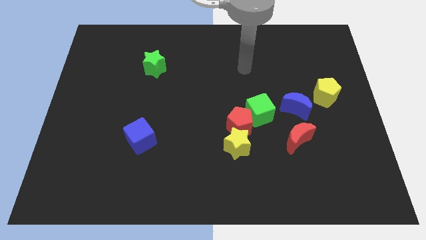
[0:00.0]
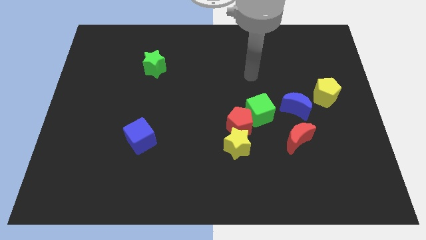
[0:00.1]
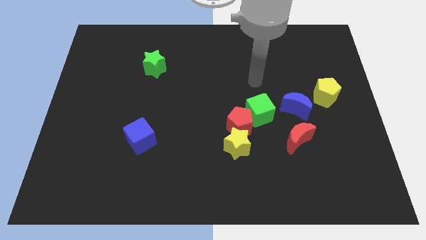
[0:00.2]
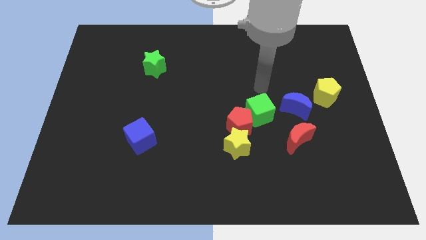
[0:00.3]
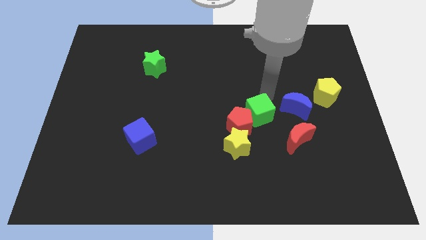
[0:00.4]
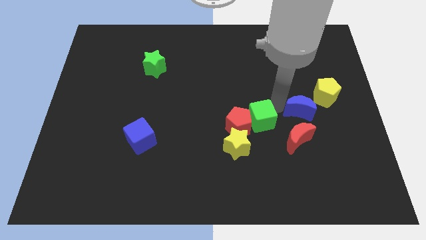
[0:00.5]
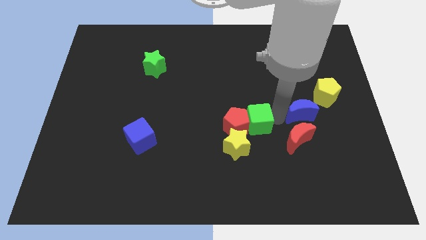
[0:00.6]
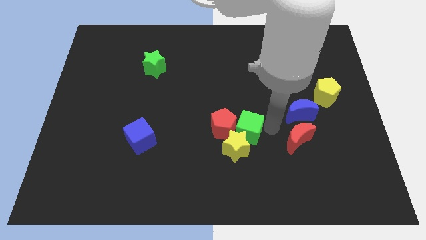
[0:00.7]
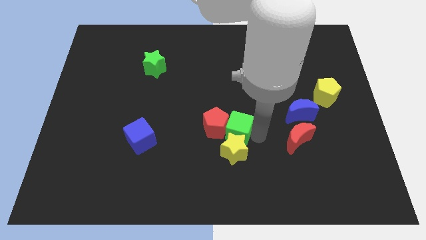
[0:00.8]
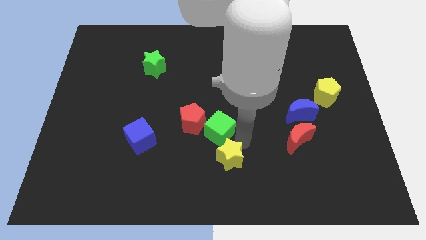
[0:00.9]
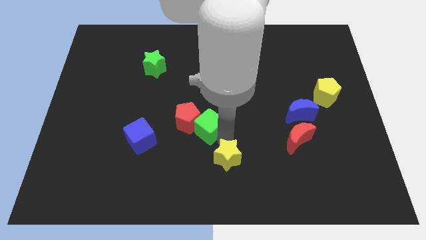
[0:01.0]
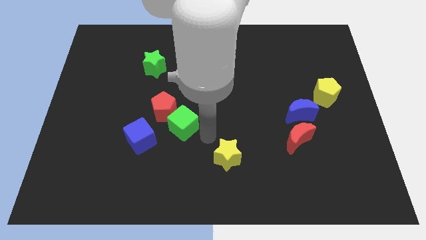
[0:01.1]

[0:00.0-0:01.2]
move the red pentagon away from the green cube and yellow star

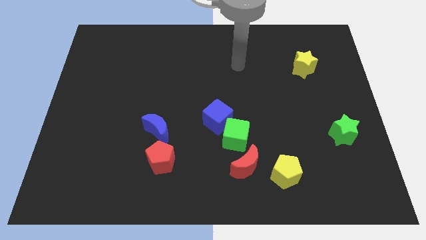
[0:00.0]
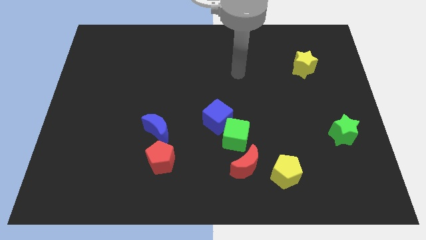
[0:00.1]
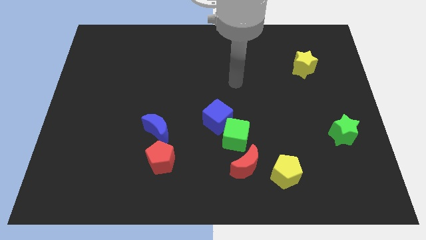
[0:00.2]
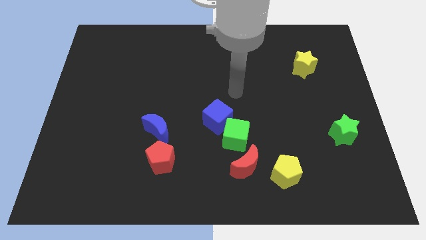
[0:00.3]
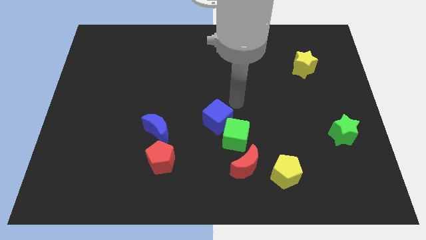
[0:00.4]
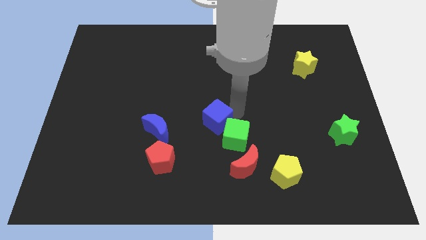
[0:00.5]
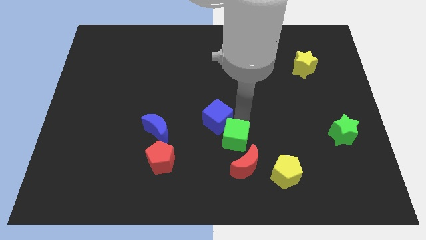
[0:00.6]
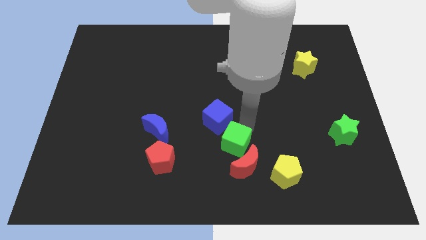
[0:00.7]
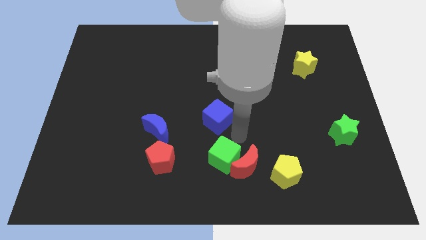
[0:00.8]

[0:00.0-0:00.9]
pull the blue cube apart from the green cube

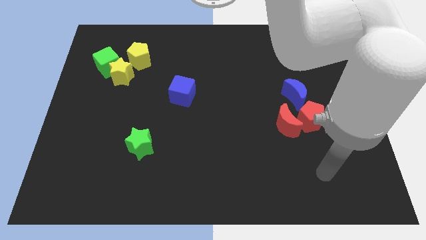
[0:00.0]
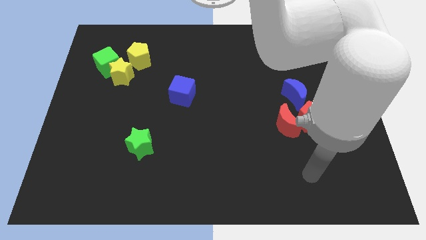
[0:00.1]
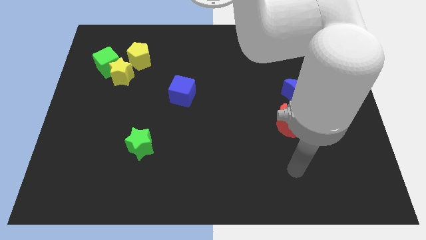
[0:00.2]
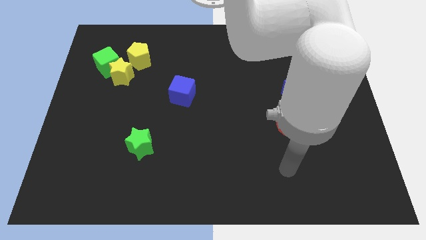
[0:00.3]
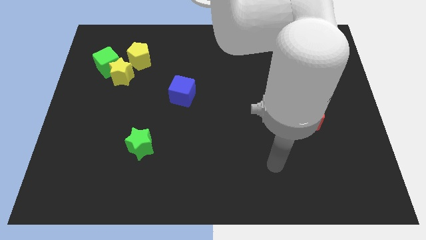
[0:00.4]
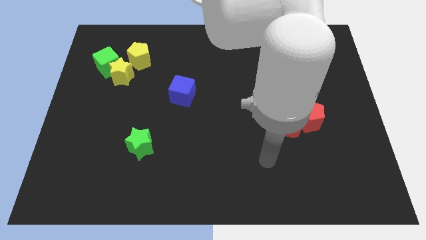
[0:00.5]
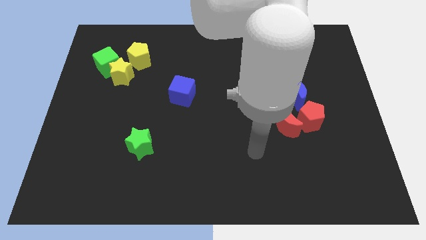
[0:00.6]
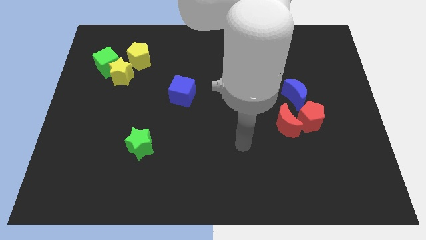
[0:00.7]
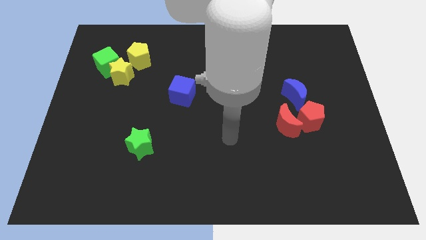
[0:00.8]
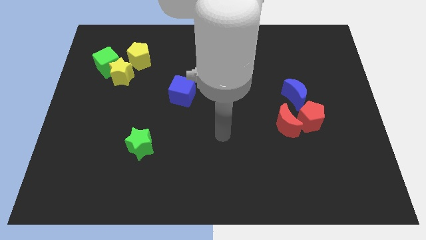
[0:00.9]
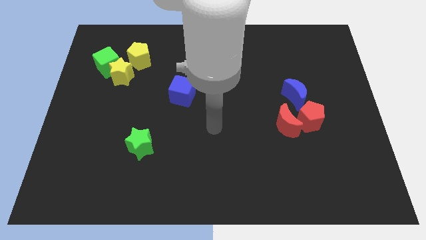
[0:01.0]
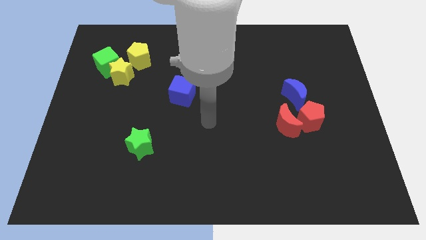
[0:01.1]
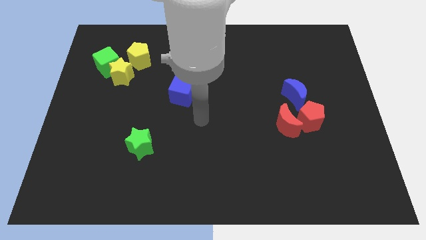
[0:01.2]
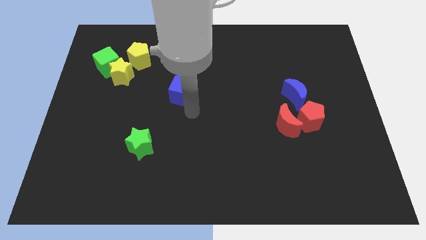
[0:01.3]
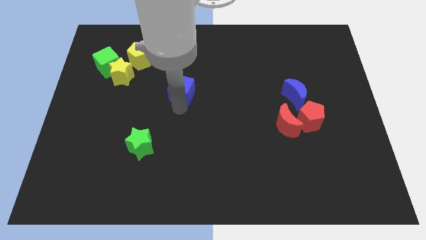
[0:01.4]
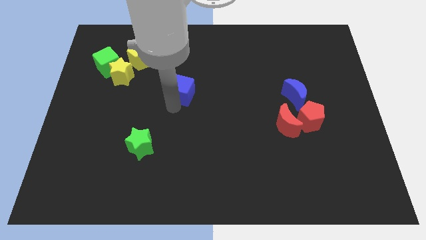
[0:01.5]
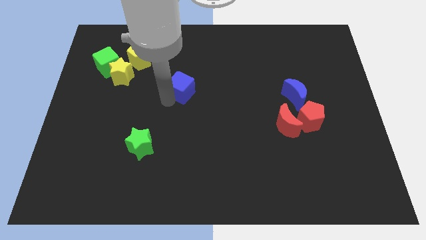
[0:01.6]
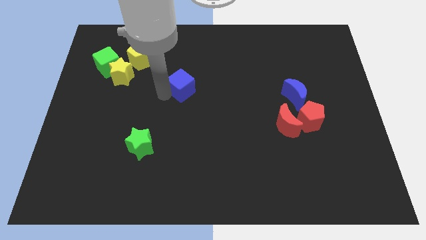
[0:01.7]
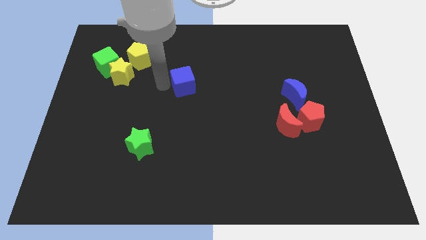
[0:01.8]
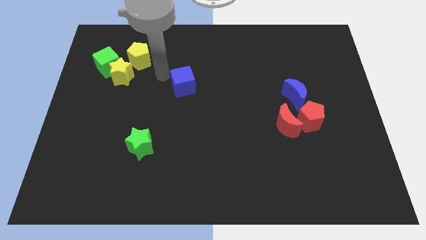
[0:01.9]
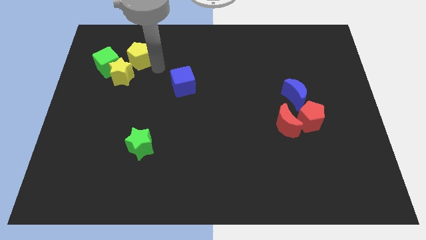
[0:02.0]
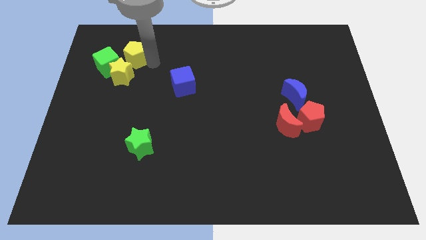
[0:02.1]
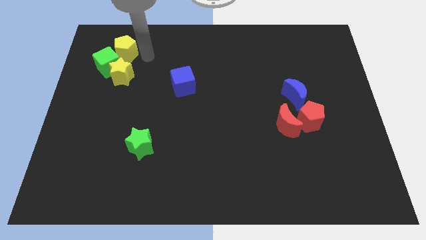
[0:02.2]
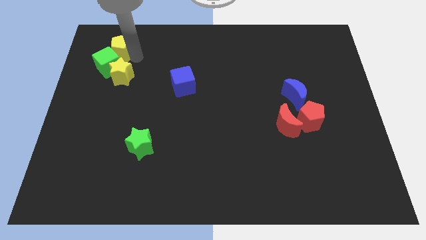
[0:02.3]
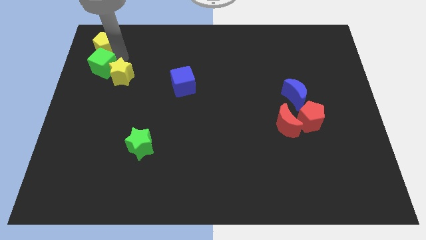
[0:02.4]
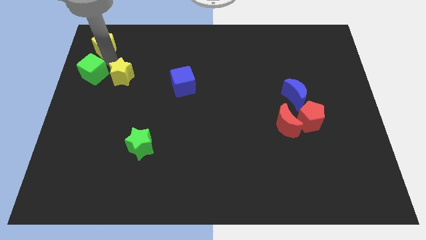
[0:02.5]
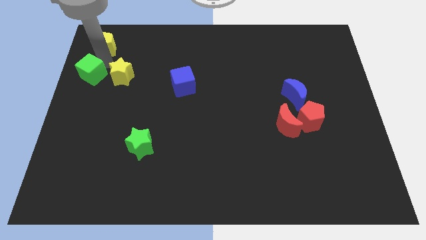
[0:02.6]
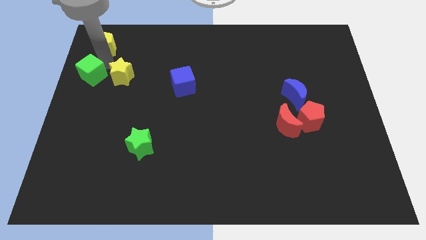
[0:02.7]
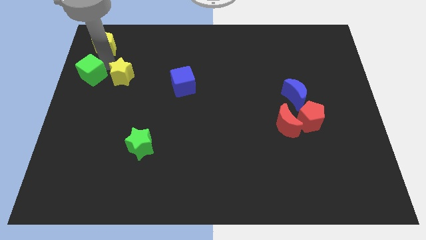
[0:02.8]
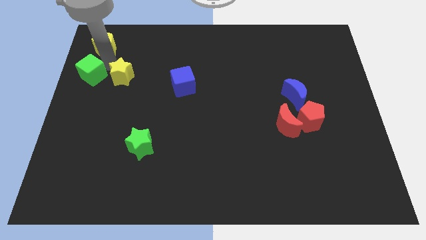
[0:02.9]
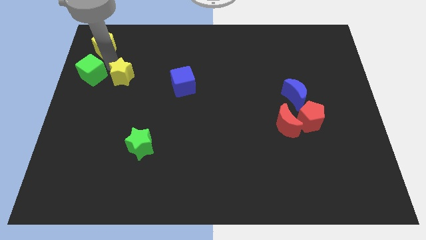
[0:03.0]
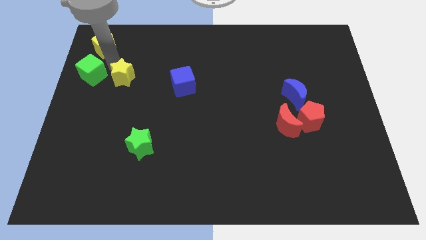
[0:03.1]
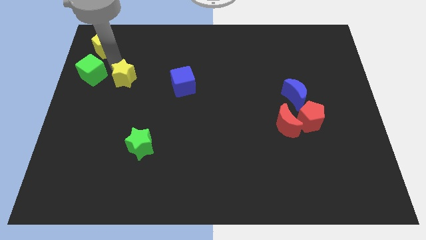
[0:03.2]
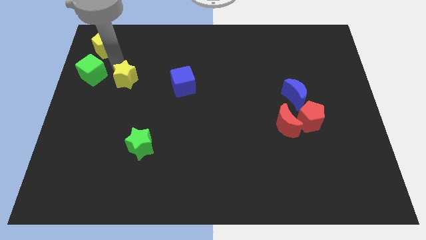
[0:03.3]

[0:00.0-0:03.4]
pull the yellow star apart from the green cube and yellow pentagon

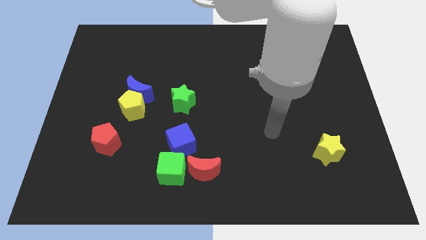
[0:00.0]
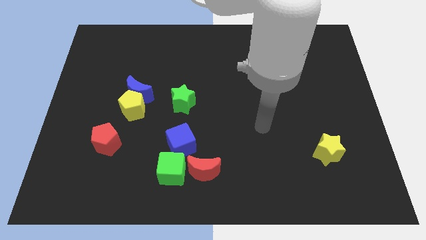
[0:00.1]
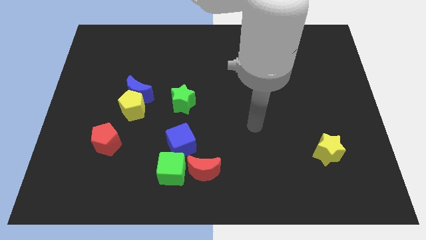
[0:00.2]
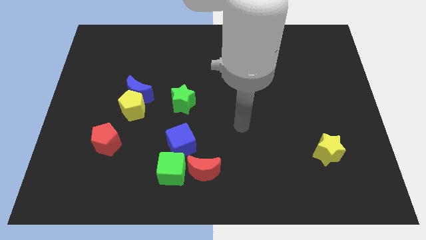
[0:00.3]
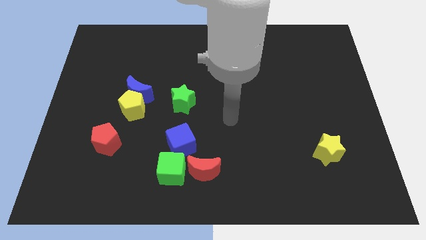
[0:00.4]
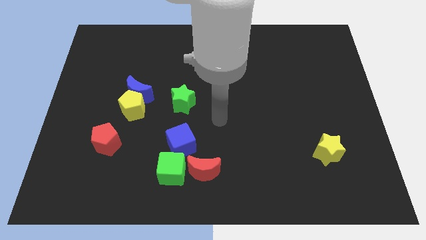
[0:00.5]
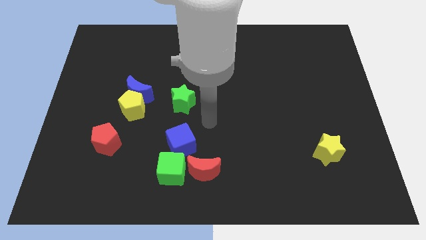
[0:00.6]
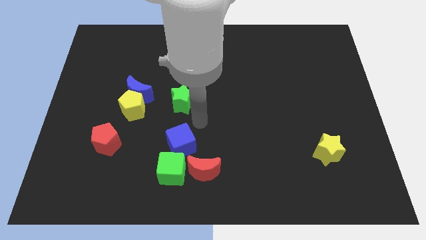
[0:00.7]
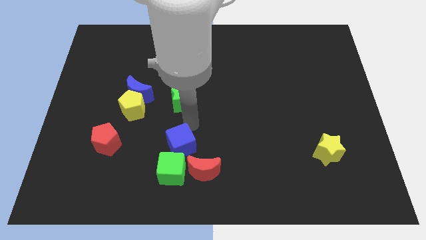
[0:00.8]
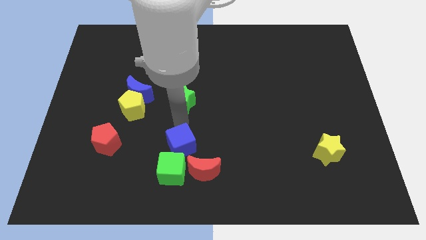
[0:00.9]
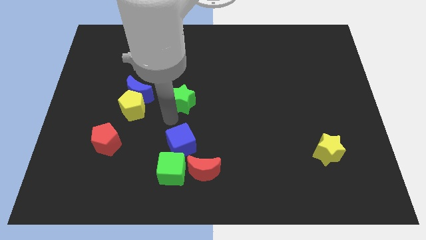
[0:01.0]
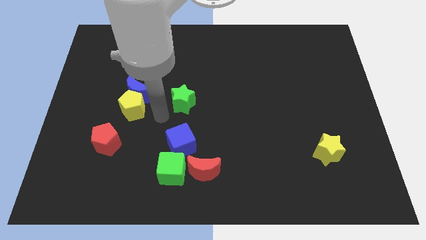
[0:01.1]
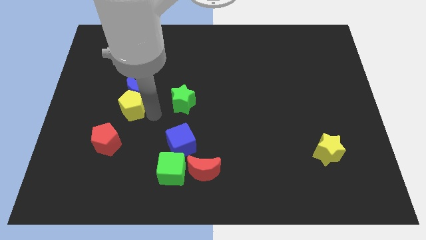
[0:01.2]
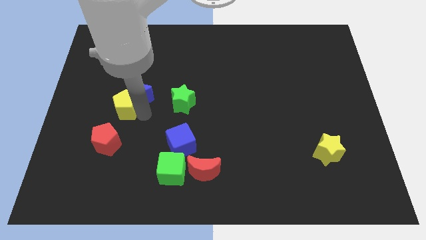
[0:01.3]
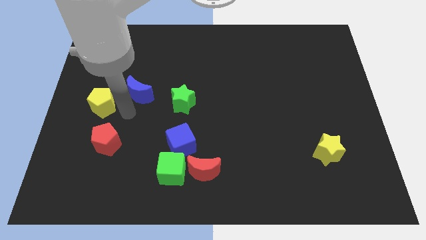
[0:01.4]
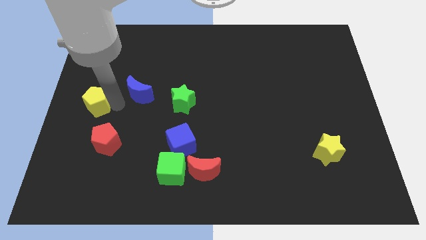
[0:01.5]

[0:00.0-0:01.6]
separate the blue moon from the yellow pentagon

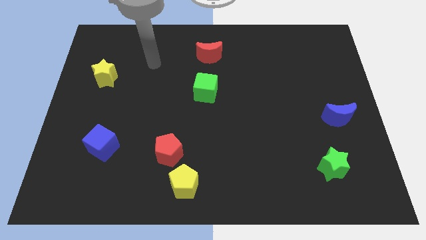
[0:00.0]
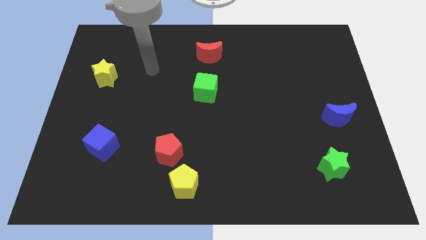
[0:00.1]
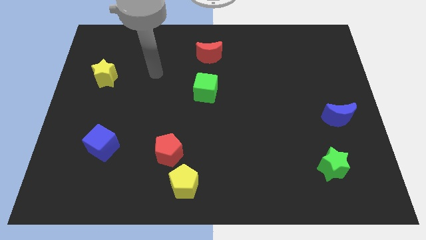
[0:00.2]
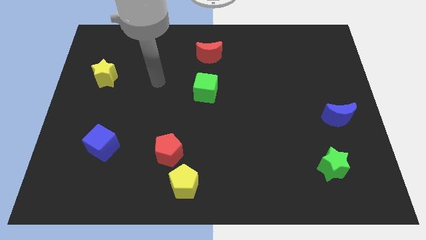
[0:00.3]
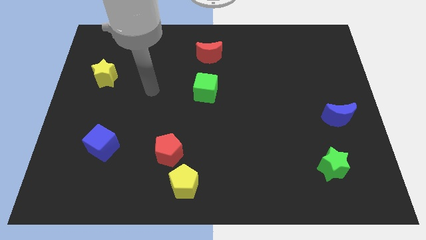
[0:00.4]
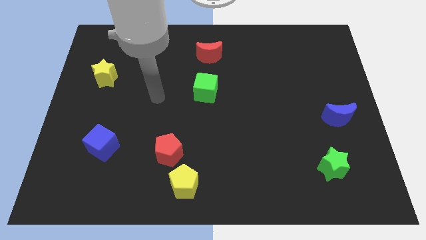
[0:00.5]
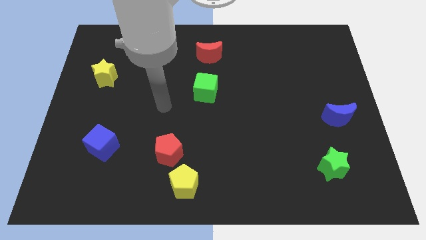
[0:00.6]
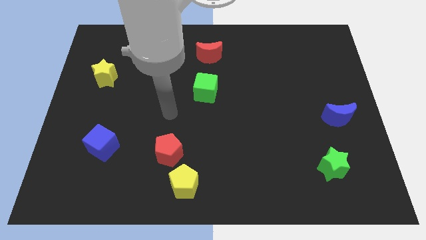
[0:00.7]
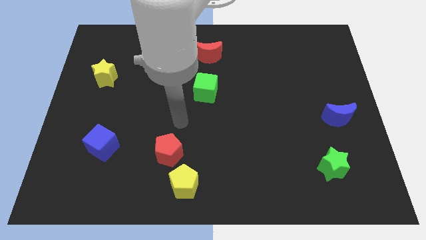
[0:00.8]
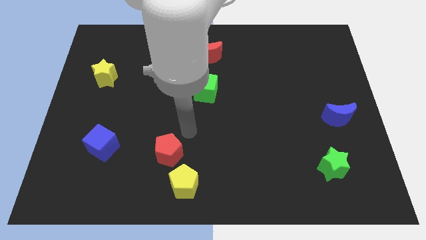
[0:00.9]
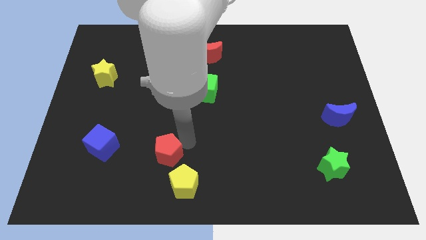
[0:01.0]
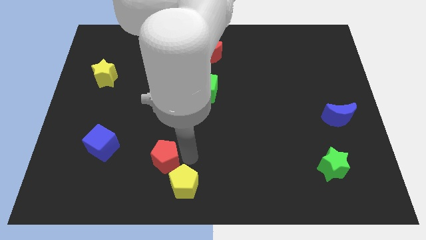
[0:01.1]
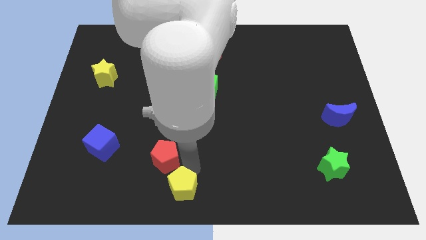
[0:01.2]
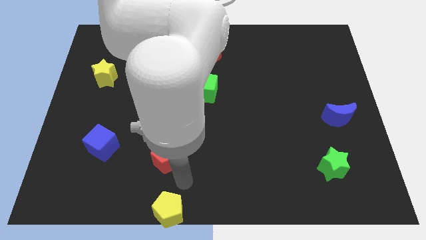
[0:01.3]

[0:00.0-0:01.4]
pull the red pentagon apart from the yellow pentagon

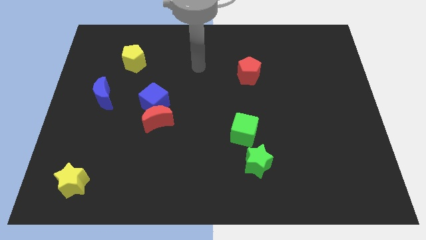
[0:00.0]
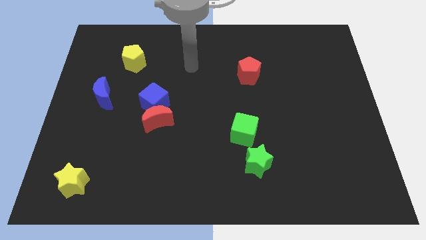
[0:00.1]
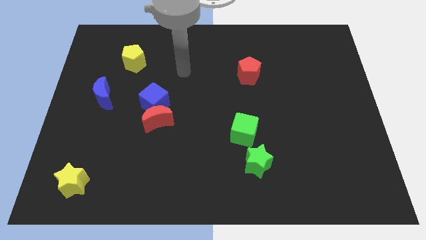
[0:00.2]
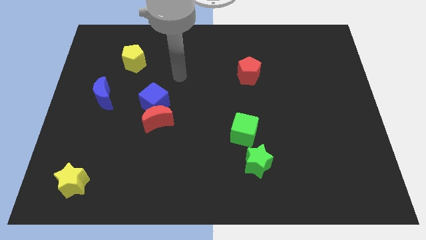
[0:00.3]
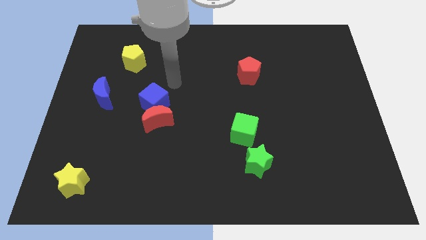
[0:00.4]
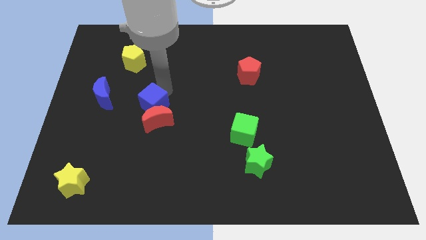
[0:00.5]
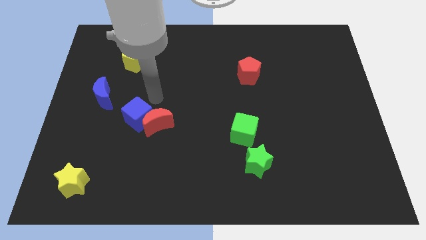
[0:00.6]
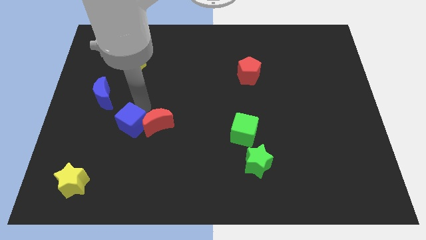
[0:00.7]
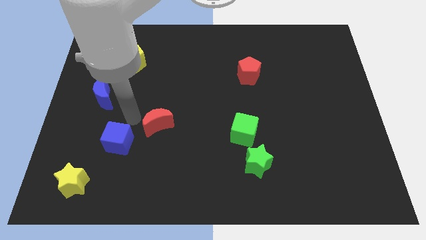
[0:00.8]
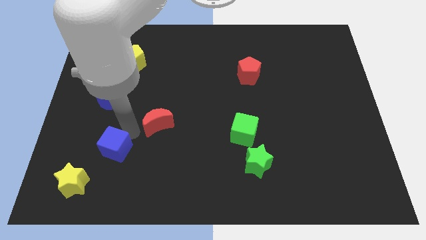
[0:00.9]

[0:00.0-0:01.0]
pull the red moon apart from the blue cube
